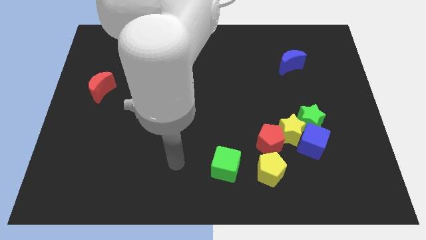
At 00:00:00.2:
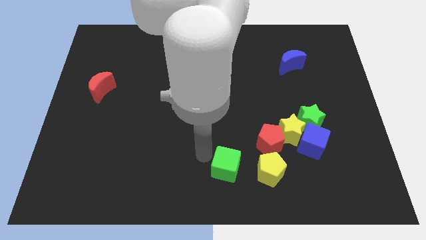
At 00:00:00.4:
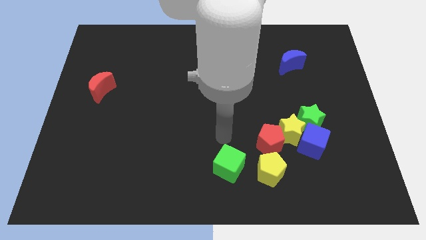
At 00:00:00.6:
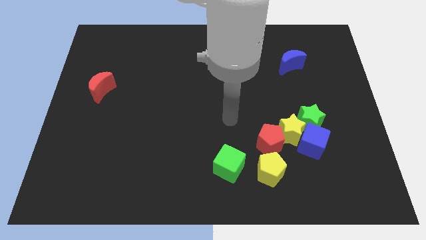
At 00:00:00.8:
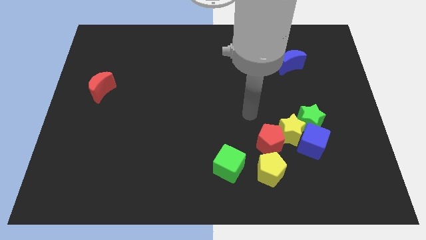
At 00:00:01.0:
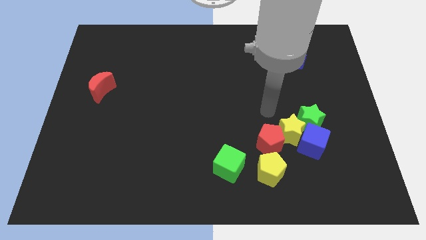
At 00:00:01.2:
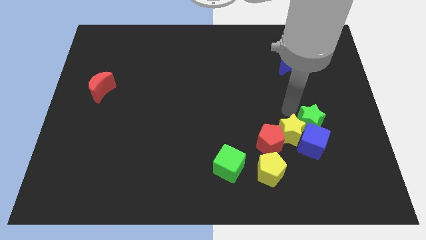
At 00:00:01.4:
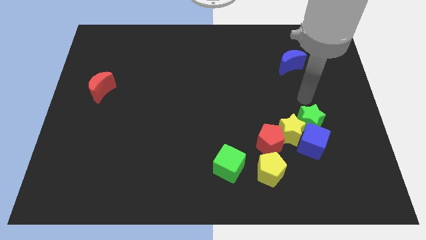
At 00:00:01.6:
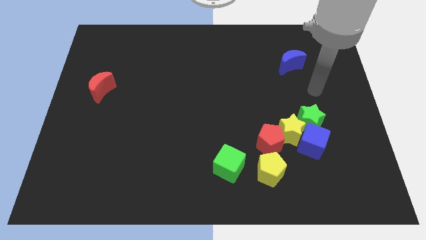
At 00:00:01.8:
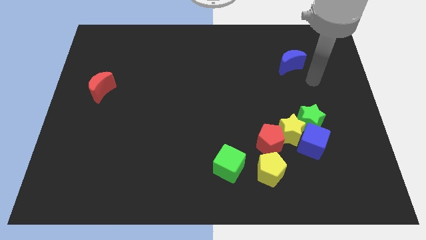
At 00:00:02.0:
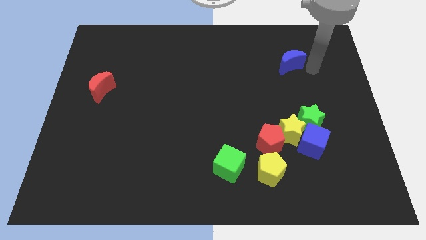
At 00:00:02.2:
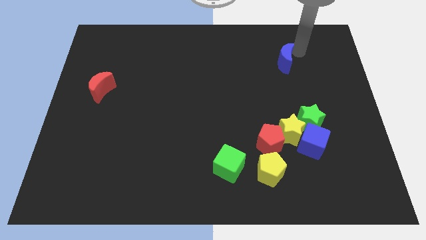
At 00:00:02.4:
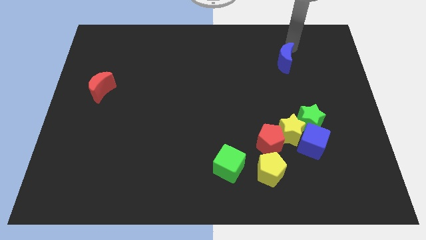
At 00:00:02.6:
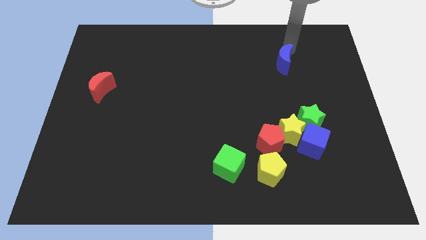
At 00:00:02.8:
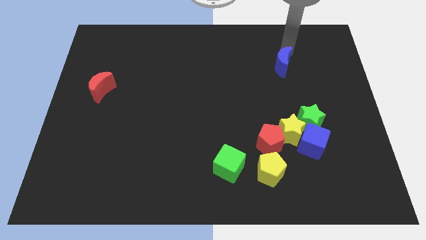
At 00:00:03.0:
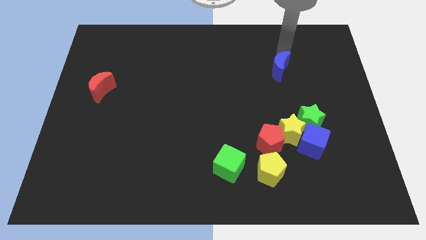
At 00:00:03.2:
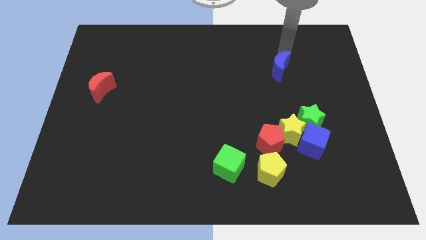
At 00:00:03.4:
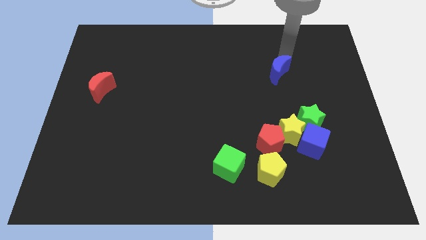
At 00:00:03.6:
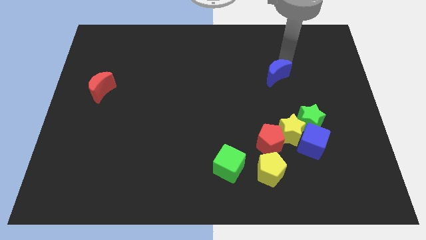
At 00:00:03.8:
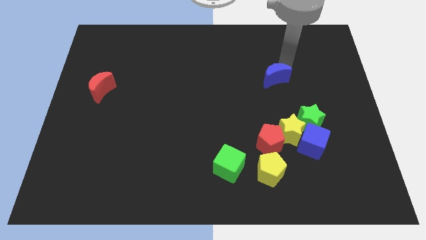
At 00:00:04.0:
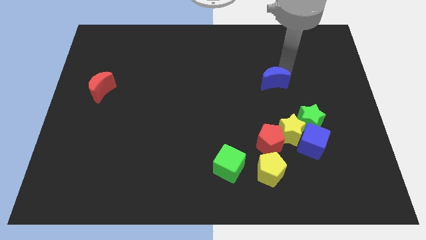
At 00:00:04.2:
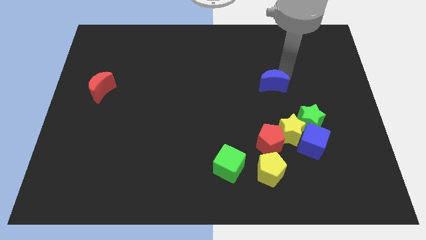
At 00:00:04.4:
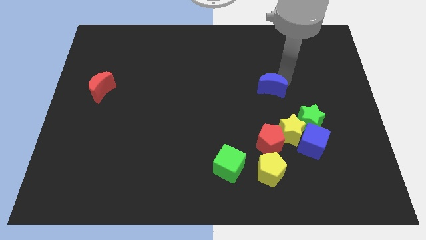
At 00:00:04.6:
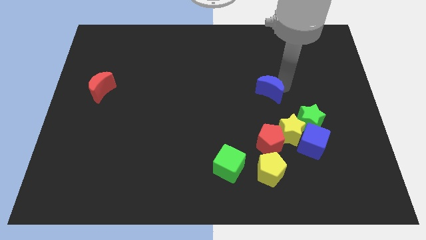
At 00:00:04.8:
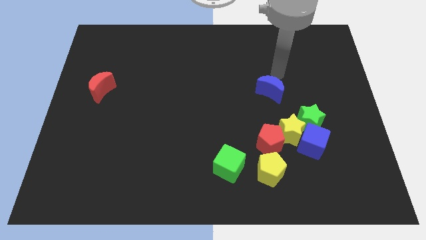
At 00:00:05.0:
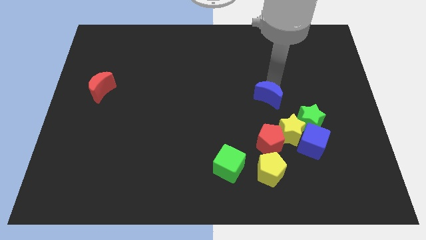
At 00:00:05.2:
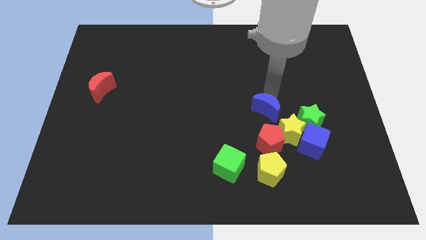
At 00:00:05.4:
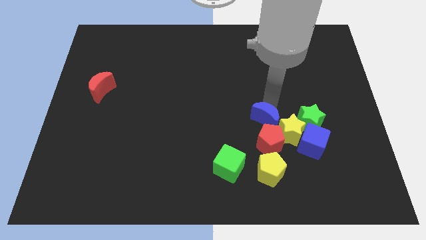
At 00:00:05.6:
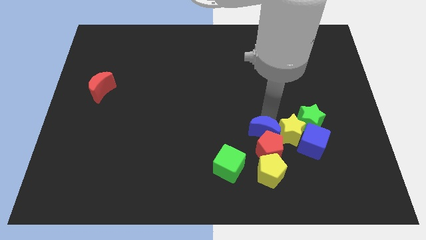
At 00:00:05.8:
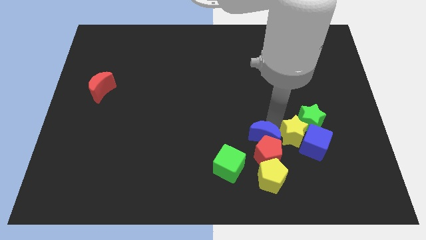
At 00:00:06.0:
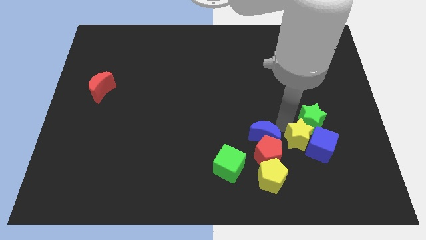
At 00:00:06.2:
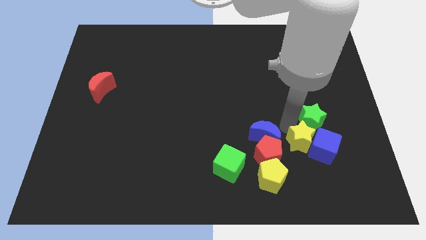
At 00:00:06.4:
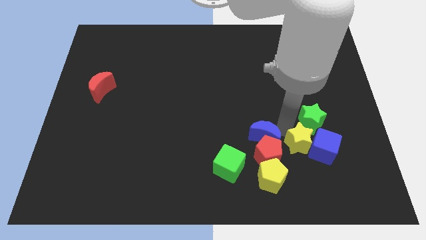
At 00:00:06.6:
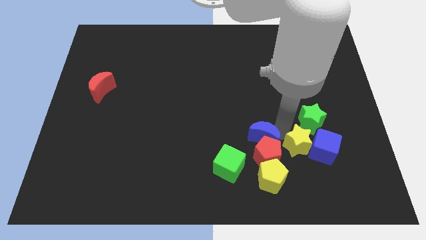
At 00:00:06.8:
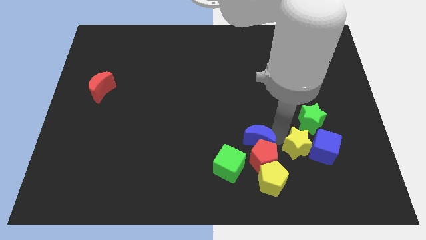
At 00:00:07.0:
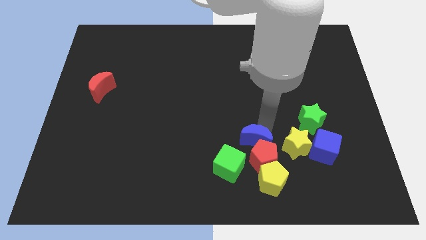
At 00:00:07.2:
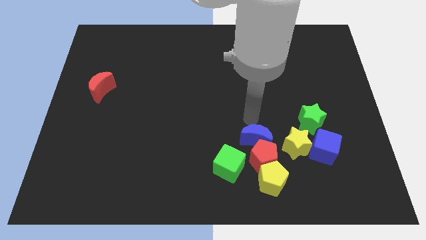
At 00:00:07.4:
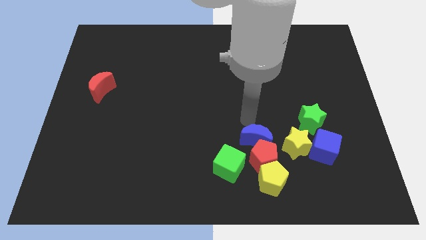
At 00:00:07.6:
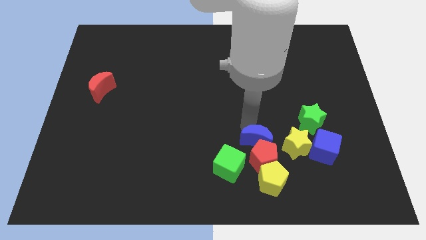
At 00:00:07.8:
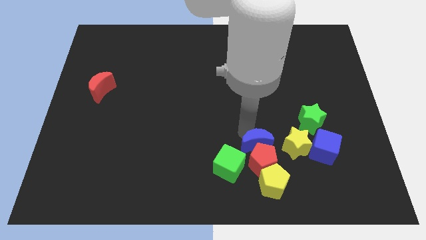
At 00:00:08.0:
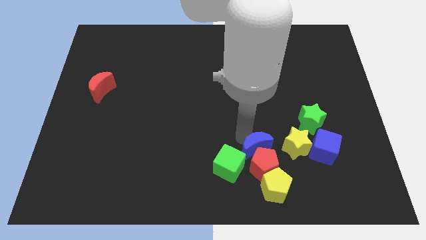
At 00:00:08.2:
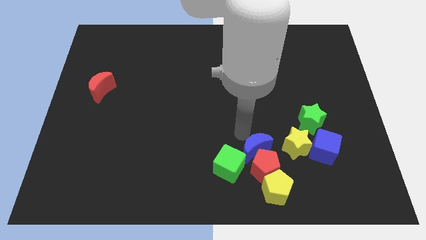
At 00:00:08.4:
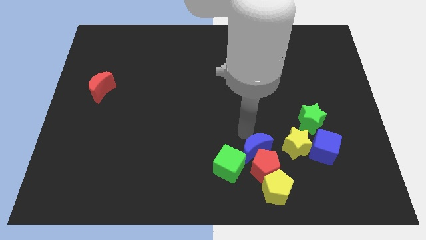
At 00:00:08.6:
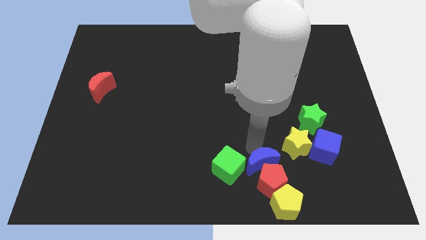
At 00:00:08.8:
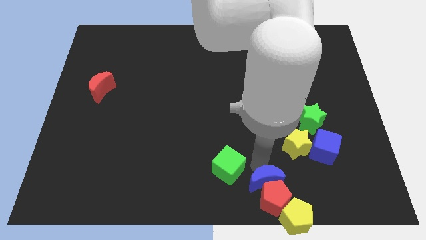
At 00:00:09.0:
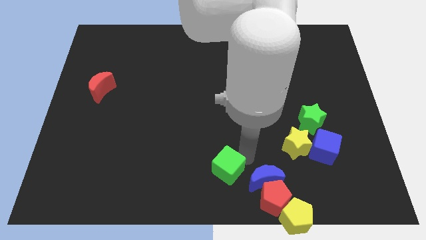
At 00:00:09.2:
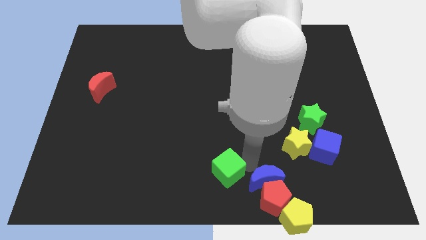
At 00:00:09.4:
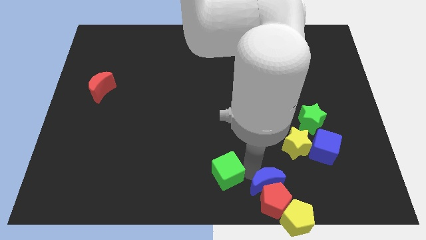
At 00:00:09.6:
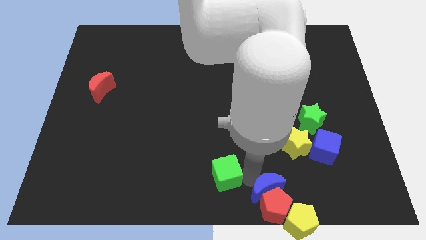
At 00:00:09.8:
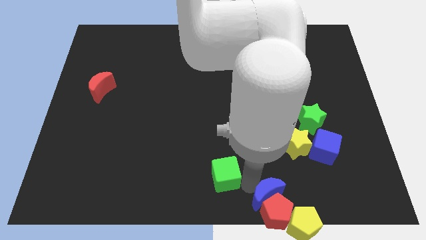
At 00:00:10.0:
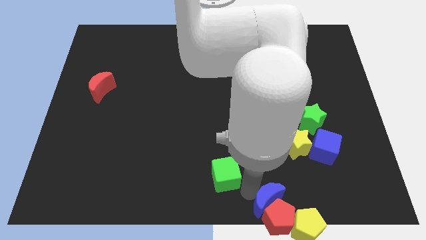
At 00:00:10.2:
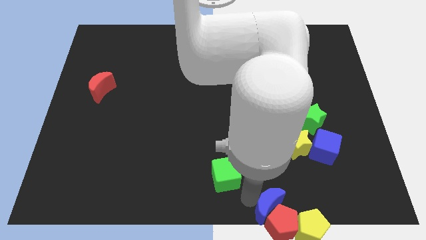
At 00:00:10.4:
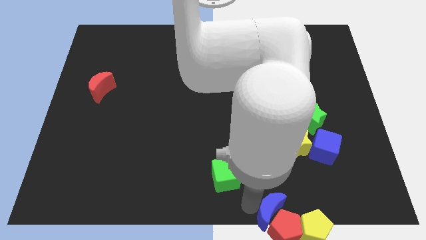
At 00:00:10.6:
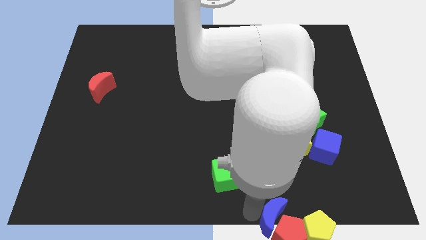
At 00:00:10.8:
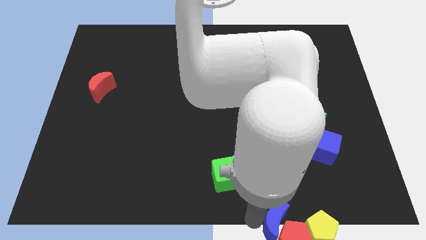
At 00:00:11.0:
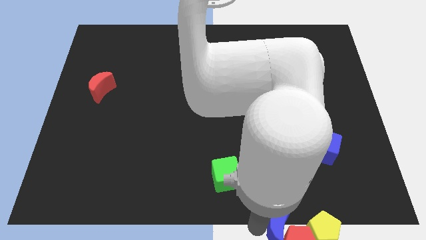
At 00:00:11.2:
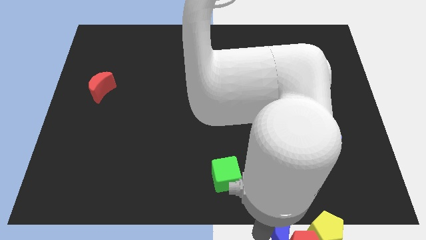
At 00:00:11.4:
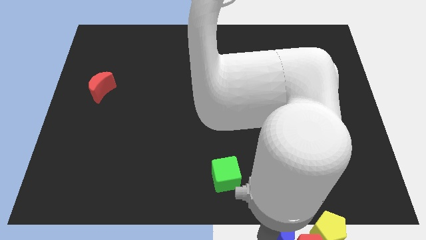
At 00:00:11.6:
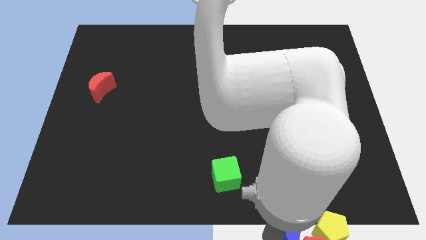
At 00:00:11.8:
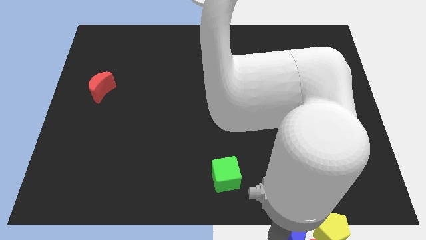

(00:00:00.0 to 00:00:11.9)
put the blue moon close to the yellow pentagon

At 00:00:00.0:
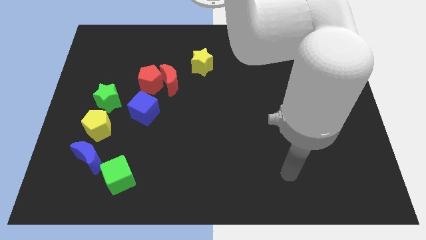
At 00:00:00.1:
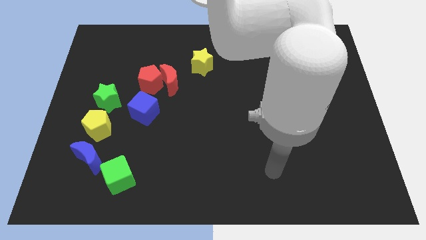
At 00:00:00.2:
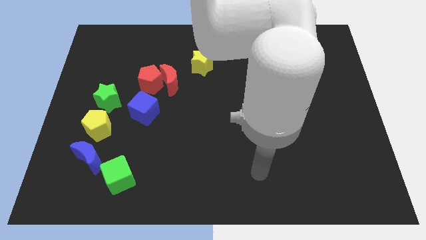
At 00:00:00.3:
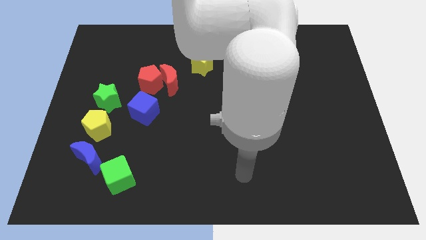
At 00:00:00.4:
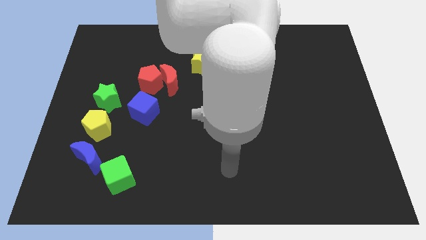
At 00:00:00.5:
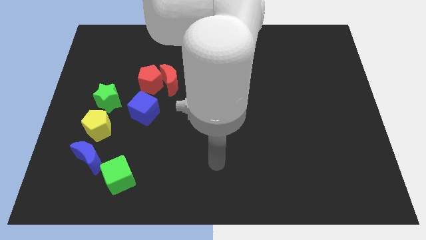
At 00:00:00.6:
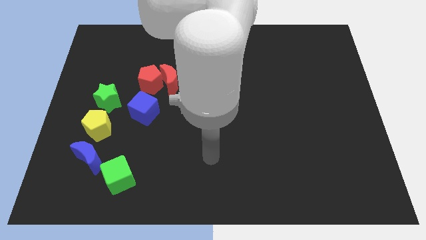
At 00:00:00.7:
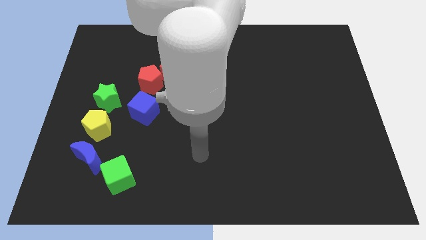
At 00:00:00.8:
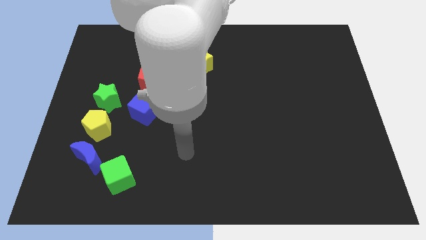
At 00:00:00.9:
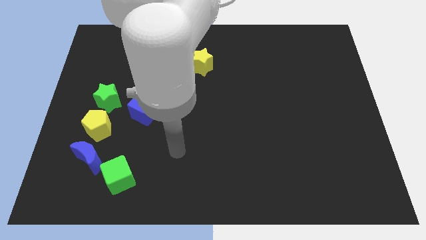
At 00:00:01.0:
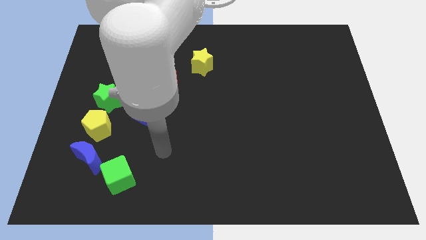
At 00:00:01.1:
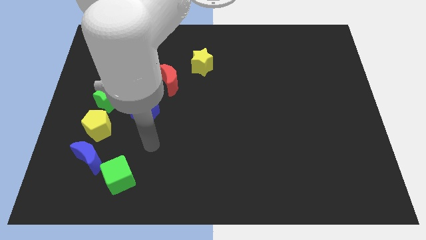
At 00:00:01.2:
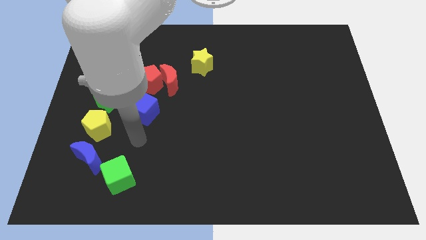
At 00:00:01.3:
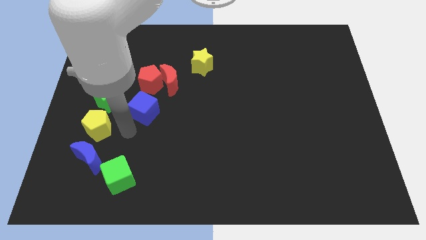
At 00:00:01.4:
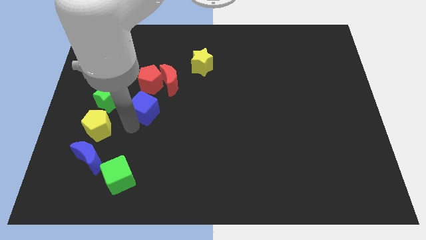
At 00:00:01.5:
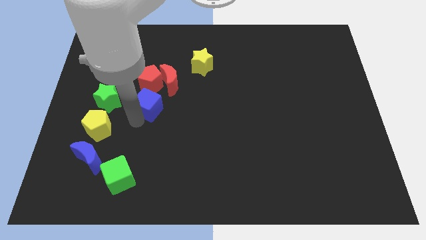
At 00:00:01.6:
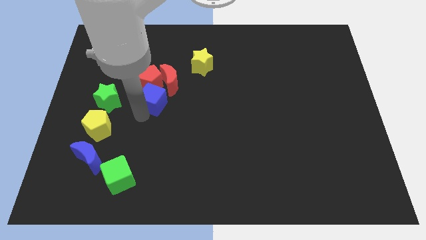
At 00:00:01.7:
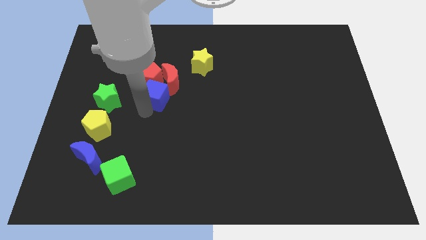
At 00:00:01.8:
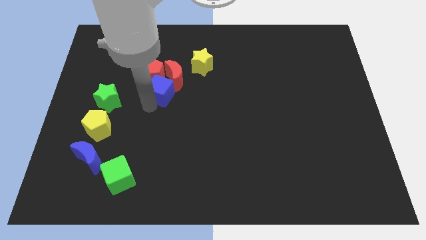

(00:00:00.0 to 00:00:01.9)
put the blue cube close to the red moon

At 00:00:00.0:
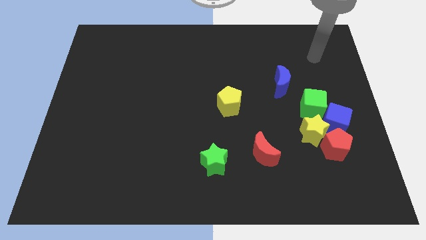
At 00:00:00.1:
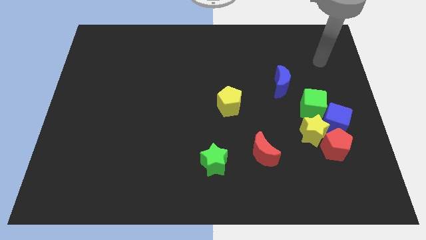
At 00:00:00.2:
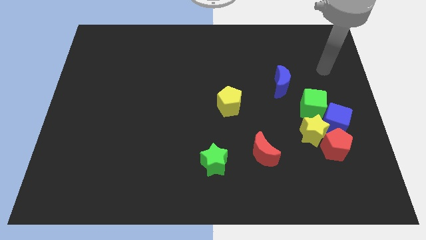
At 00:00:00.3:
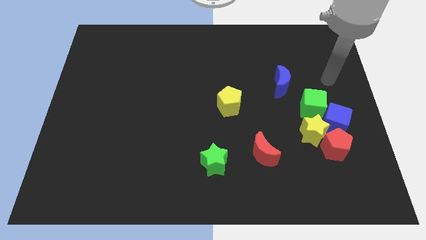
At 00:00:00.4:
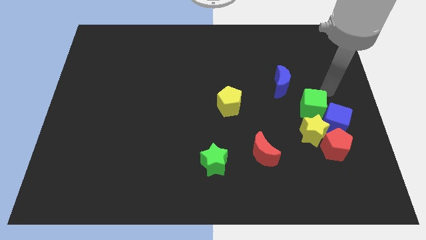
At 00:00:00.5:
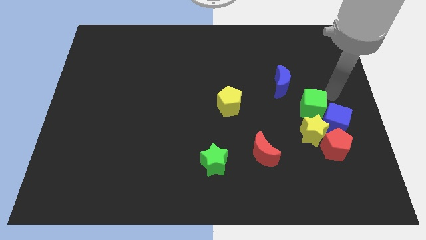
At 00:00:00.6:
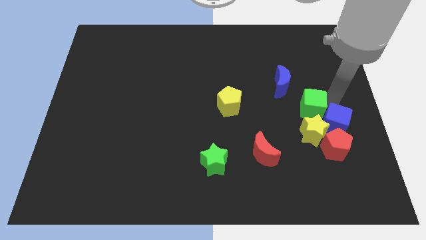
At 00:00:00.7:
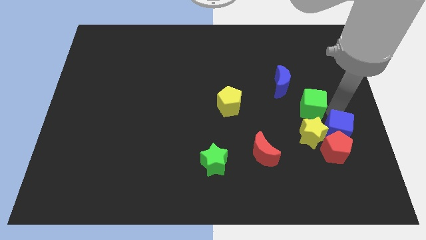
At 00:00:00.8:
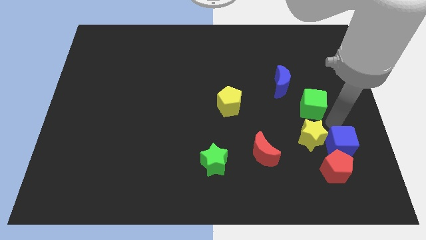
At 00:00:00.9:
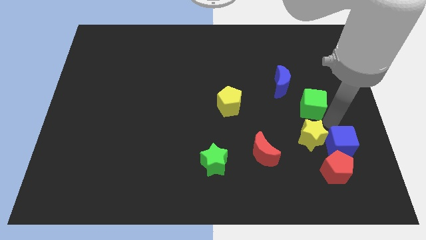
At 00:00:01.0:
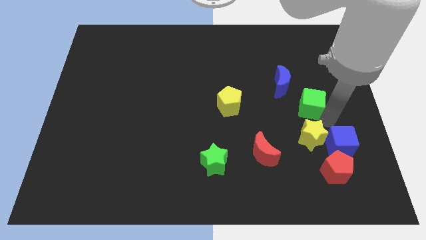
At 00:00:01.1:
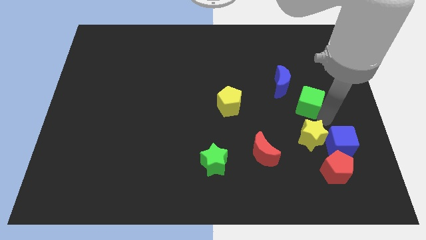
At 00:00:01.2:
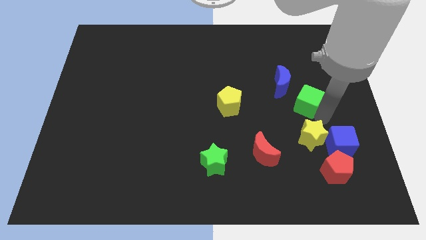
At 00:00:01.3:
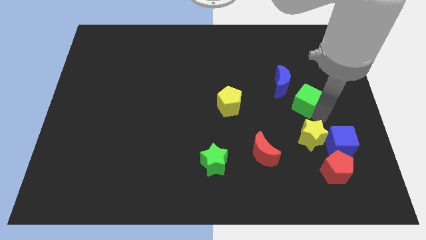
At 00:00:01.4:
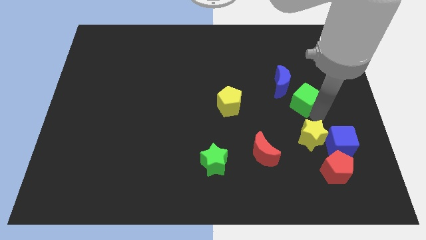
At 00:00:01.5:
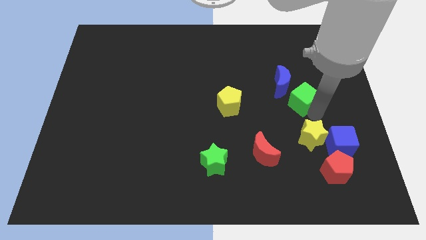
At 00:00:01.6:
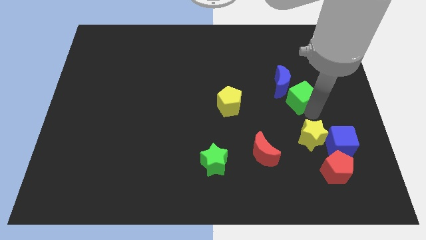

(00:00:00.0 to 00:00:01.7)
slide the green cube towards the blue moon
